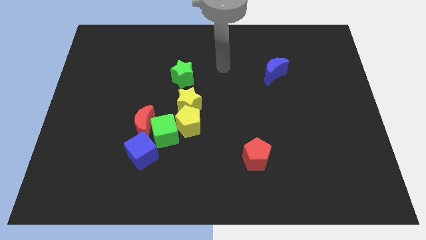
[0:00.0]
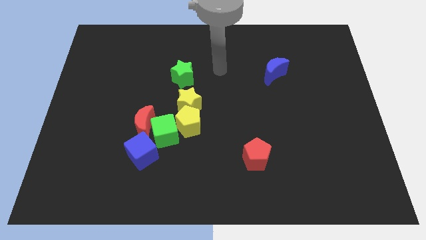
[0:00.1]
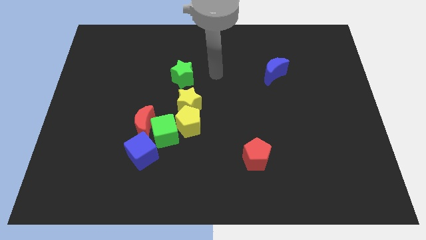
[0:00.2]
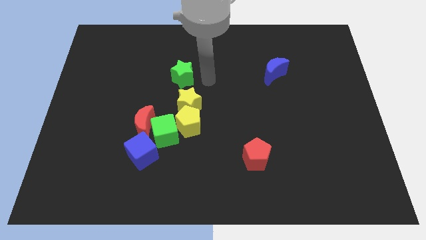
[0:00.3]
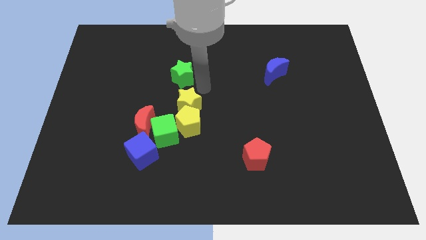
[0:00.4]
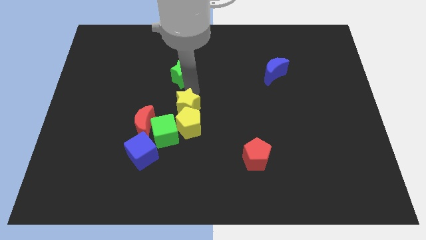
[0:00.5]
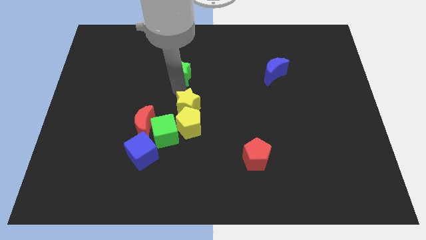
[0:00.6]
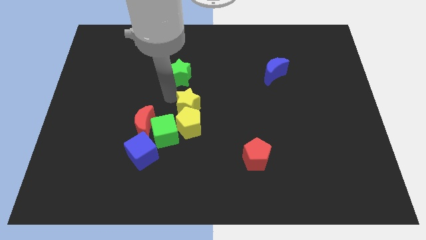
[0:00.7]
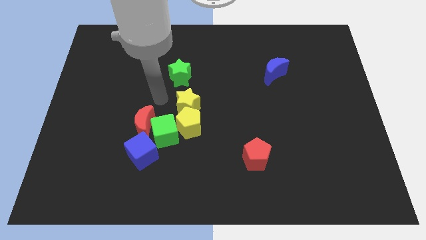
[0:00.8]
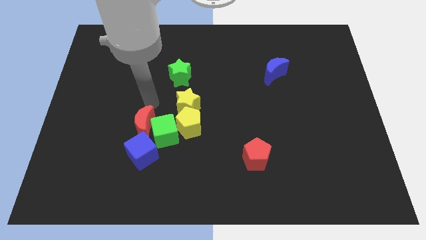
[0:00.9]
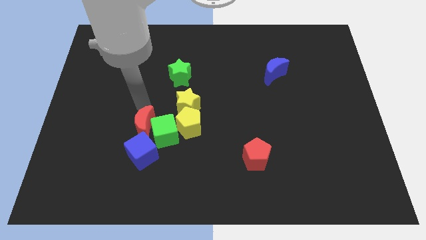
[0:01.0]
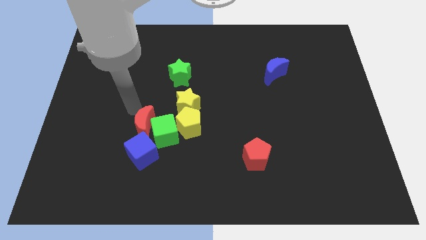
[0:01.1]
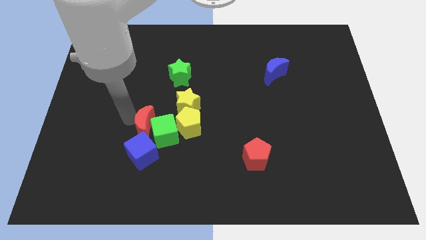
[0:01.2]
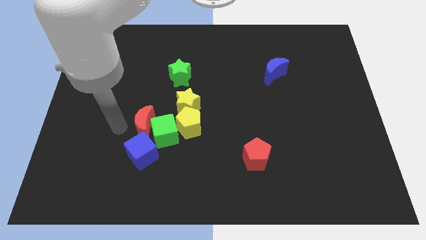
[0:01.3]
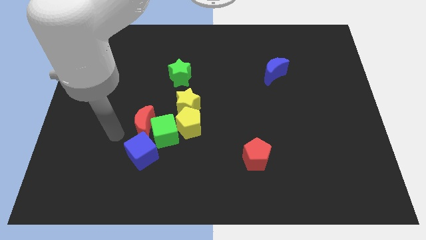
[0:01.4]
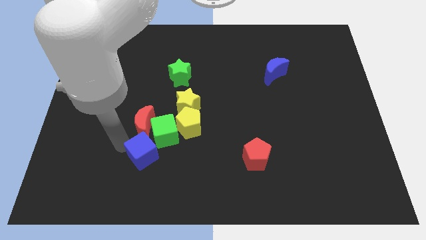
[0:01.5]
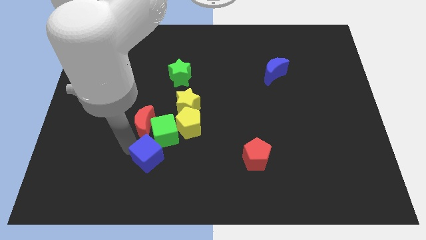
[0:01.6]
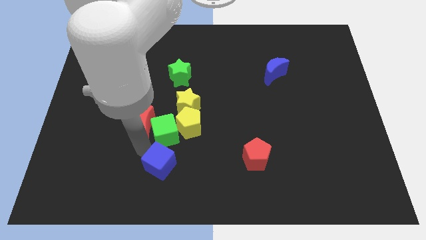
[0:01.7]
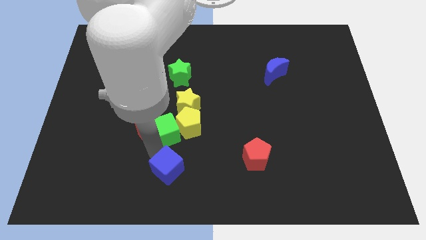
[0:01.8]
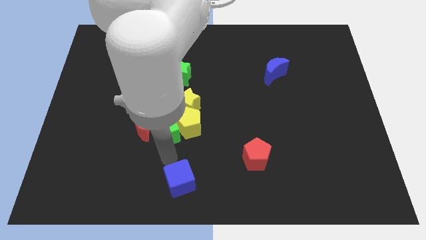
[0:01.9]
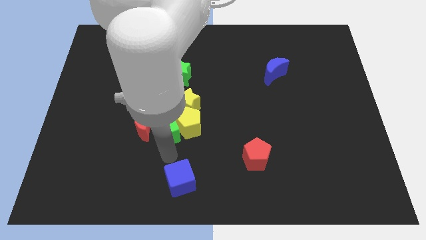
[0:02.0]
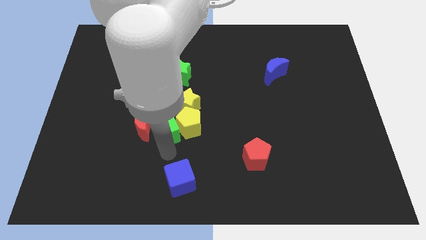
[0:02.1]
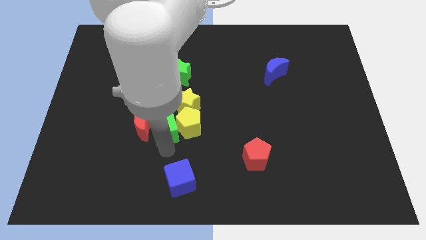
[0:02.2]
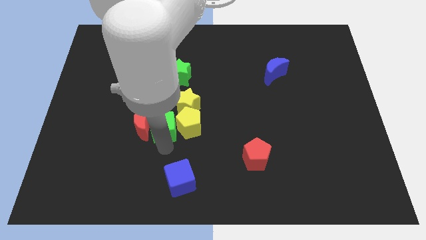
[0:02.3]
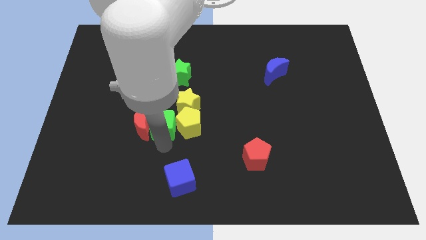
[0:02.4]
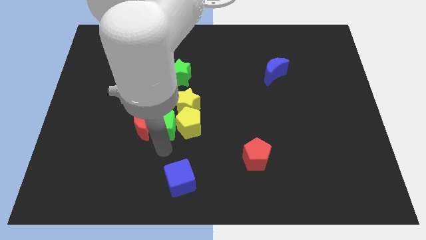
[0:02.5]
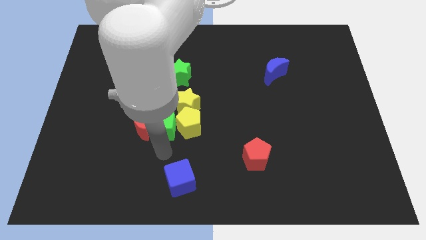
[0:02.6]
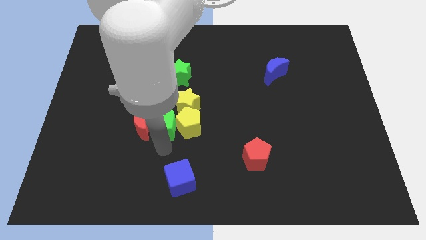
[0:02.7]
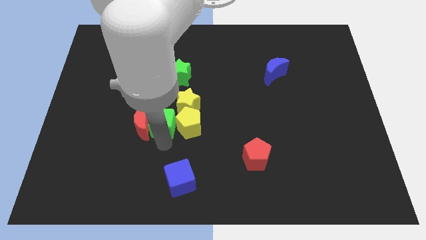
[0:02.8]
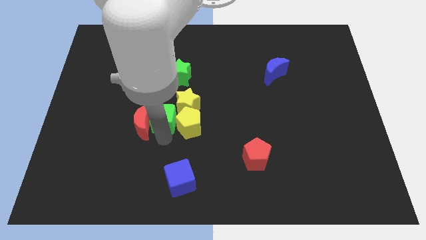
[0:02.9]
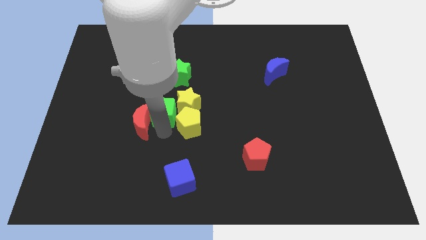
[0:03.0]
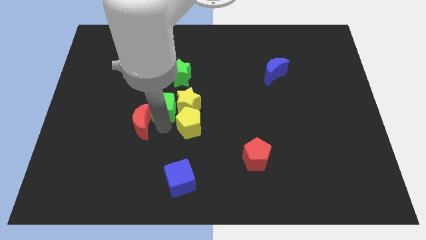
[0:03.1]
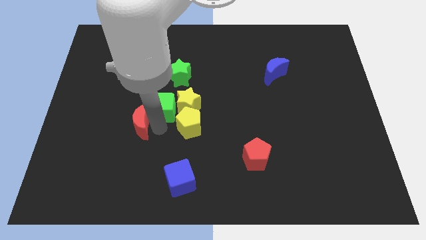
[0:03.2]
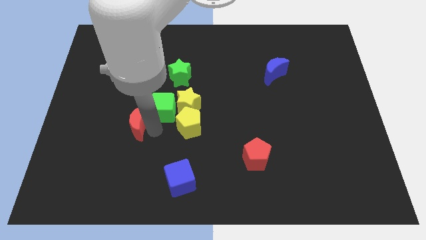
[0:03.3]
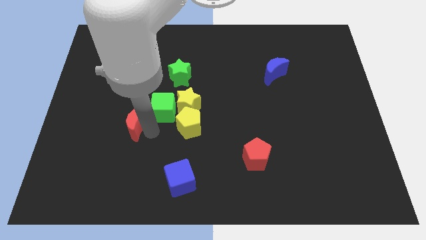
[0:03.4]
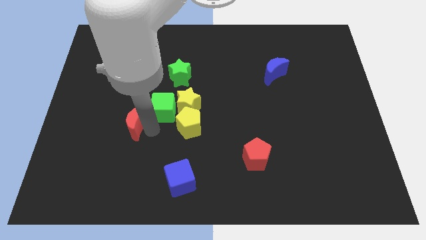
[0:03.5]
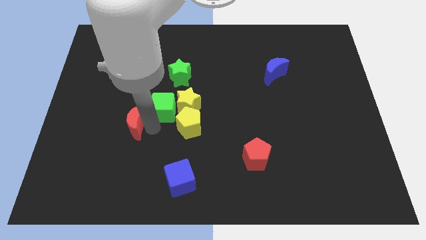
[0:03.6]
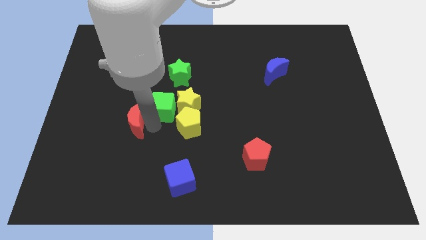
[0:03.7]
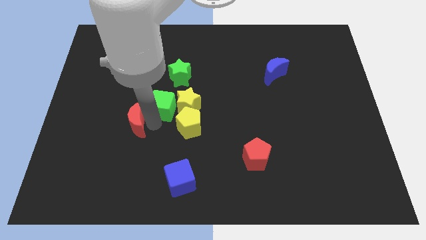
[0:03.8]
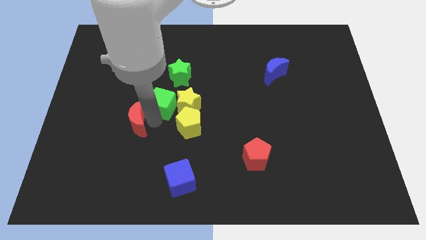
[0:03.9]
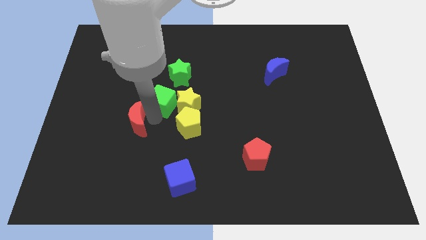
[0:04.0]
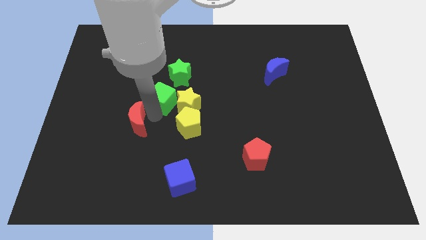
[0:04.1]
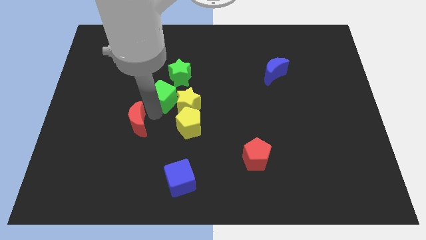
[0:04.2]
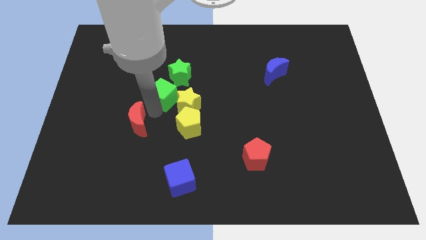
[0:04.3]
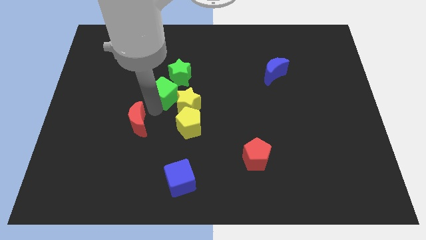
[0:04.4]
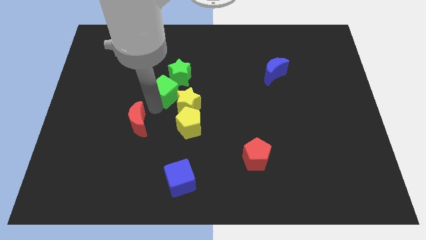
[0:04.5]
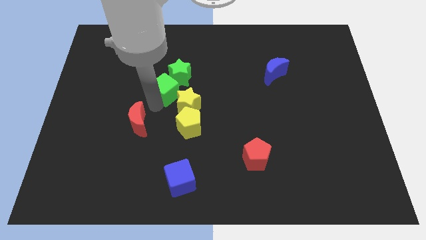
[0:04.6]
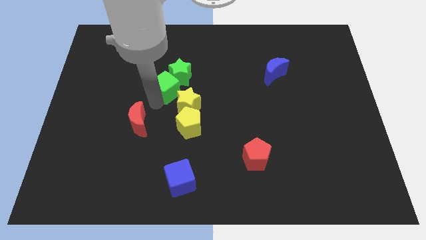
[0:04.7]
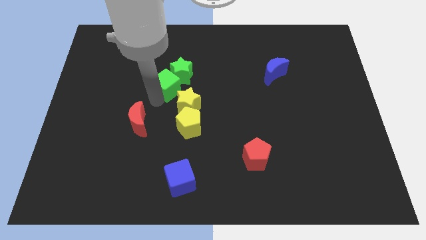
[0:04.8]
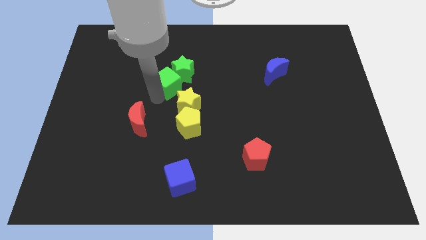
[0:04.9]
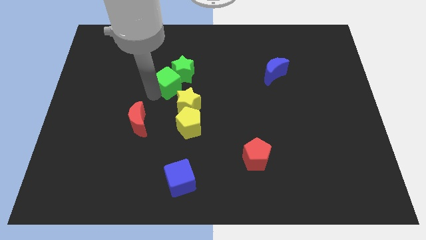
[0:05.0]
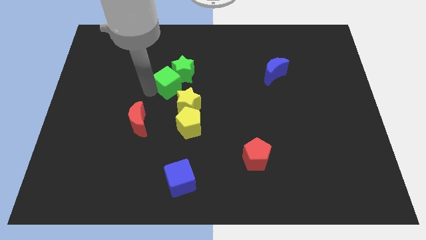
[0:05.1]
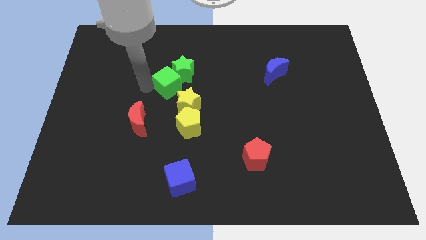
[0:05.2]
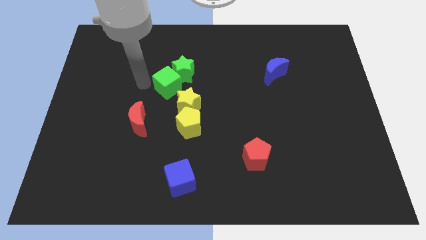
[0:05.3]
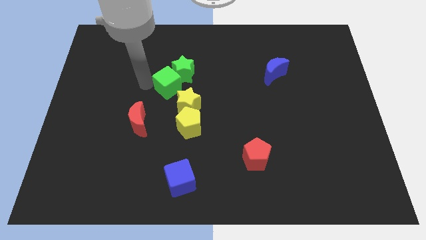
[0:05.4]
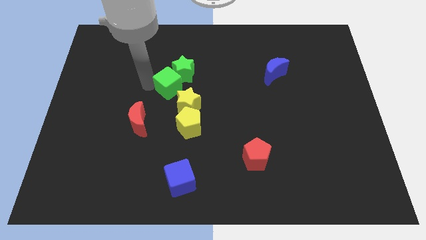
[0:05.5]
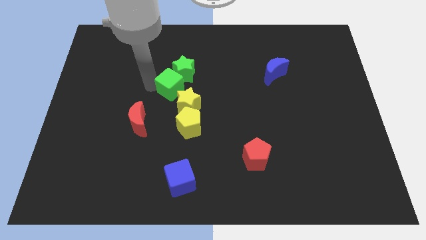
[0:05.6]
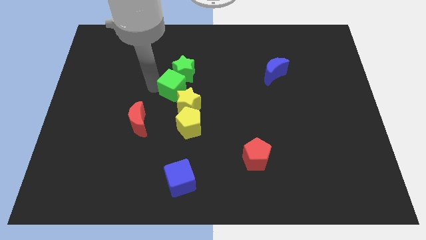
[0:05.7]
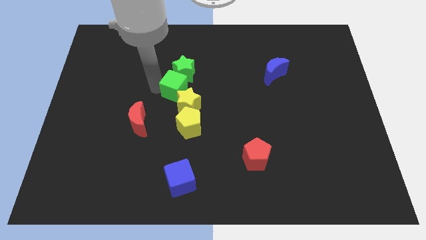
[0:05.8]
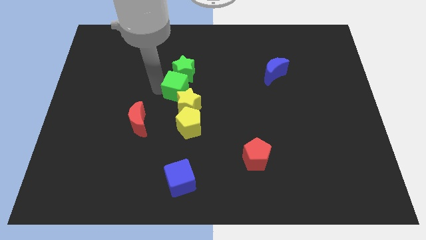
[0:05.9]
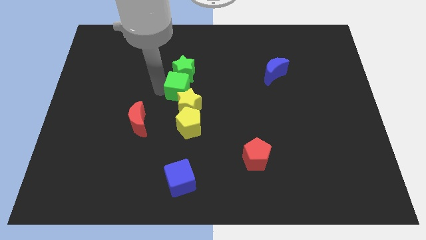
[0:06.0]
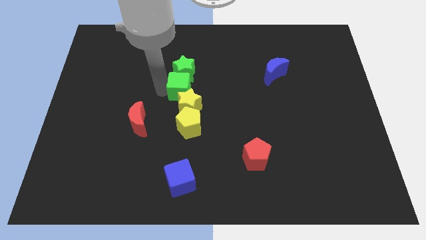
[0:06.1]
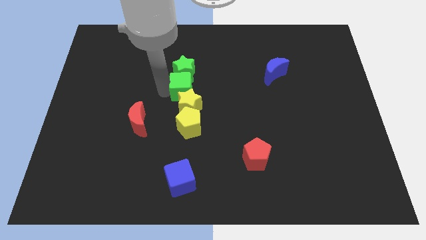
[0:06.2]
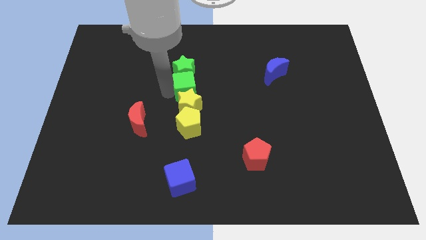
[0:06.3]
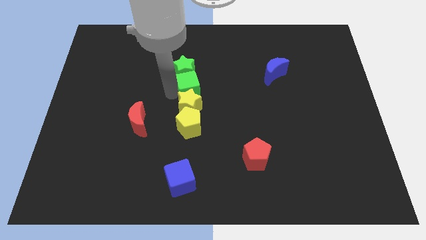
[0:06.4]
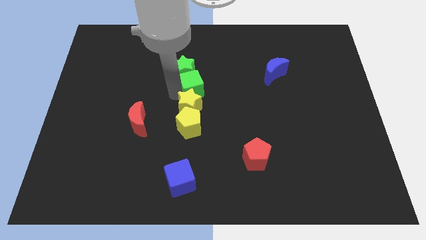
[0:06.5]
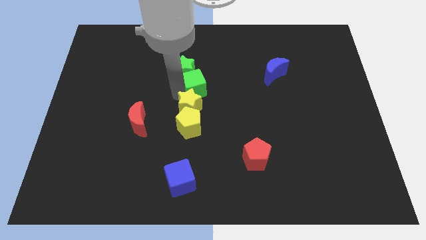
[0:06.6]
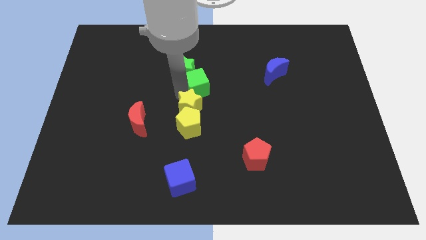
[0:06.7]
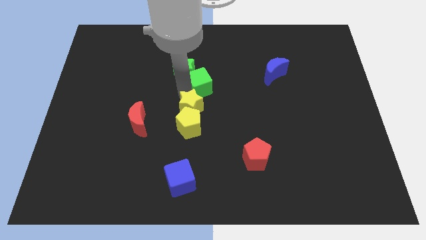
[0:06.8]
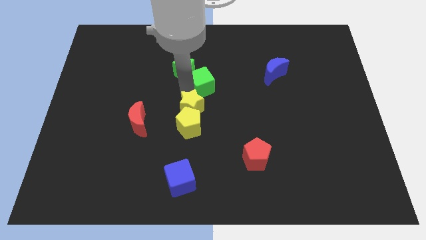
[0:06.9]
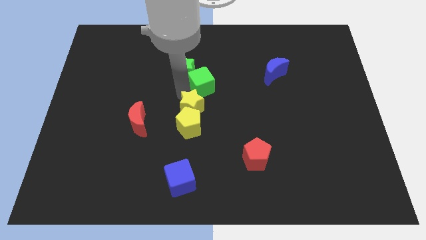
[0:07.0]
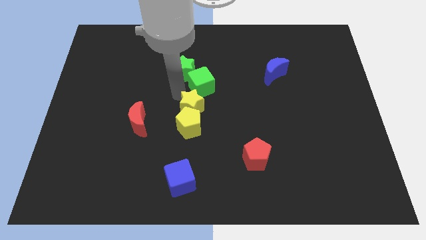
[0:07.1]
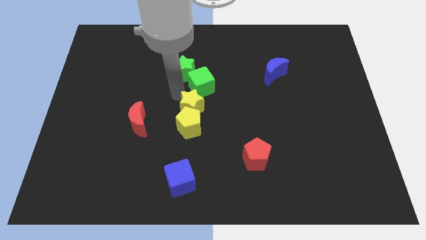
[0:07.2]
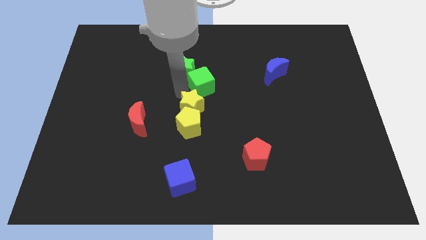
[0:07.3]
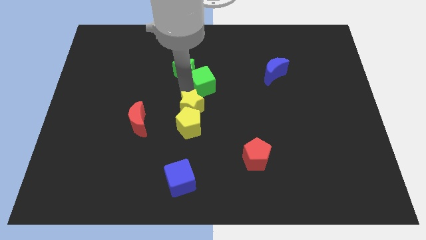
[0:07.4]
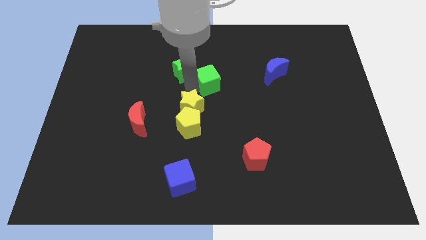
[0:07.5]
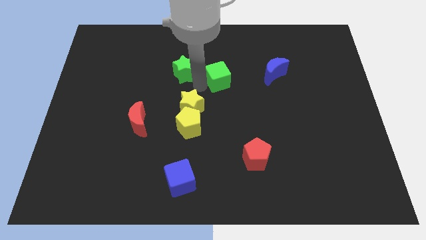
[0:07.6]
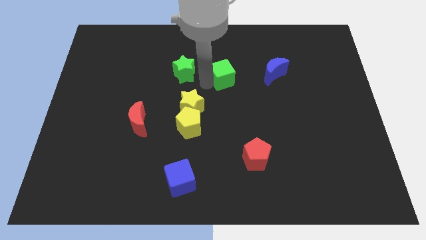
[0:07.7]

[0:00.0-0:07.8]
move the green cube upwards and right
